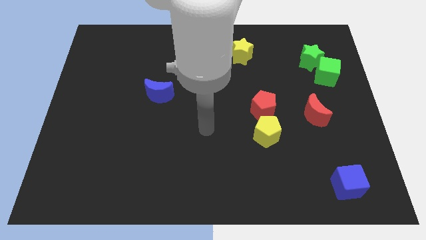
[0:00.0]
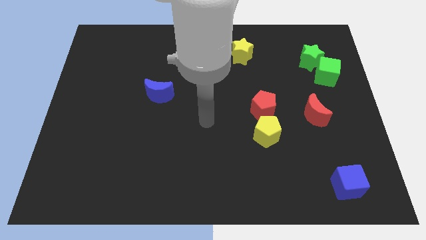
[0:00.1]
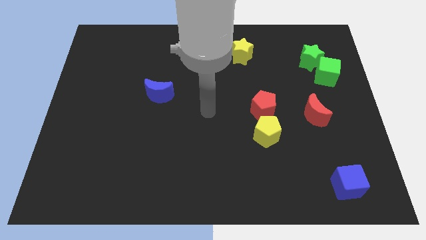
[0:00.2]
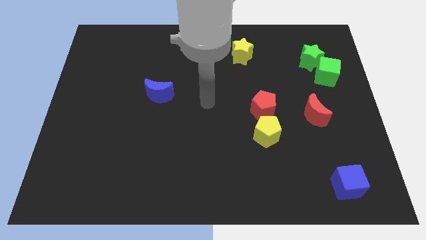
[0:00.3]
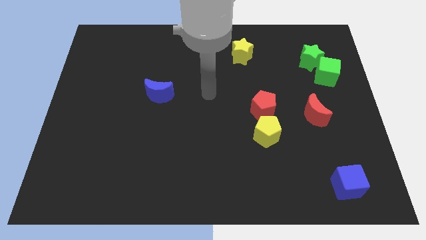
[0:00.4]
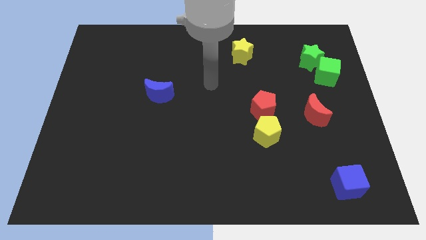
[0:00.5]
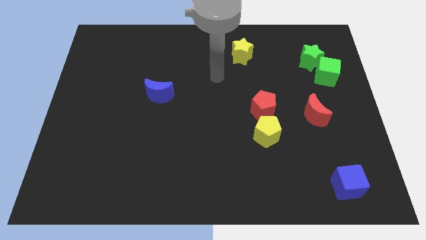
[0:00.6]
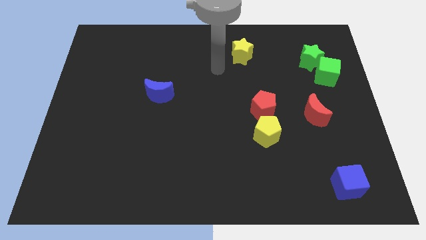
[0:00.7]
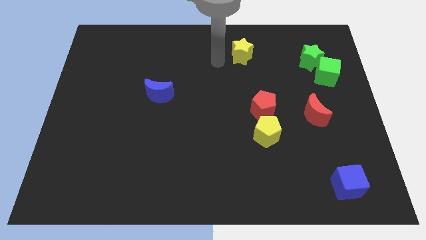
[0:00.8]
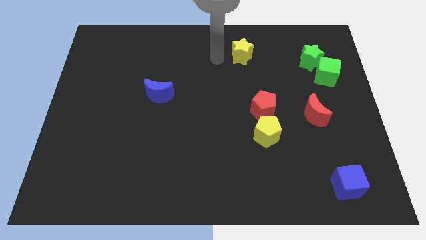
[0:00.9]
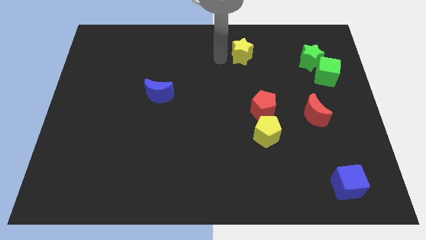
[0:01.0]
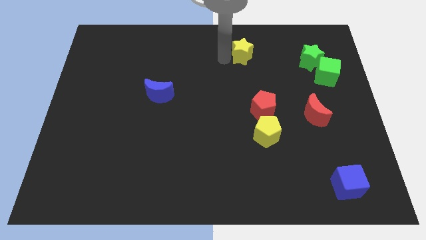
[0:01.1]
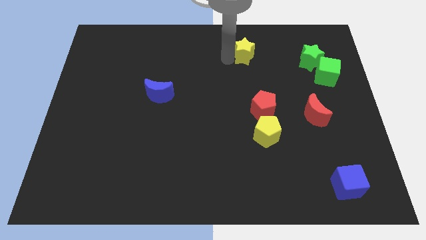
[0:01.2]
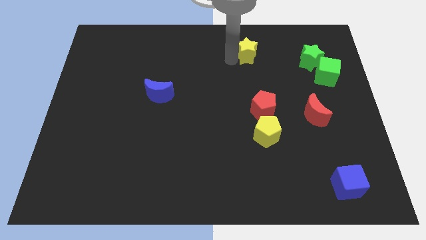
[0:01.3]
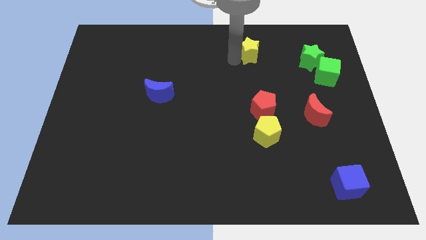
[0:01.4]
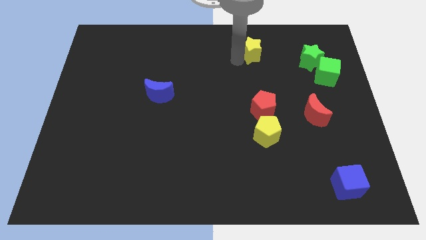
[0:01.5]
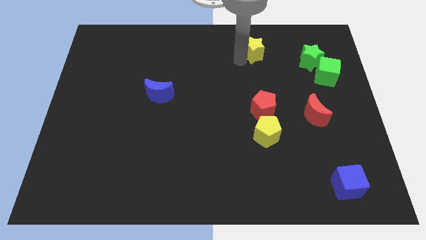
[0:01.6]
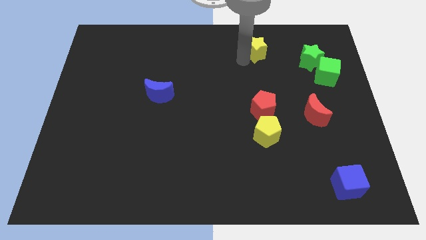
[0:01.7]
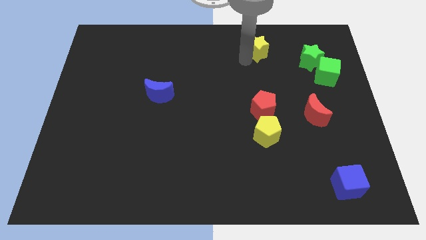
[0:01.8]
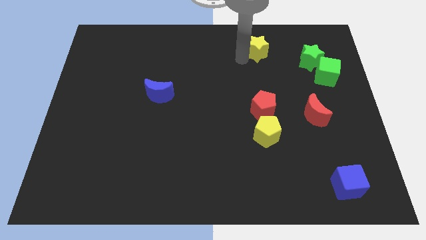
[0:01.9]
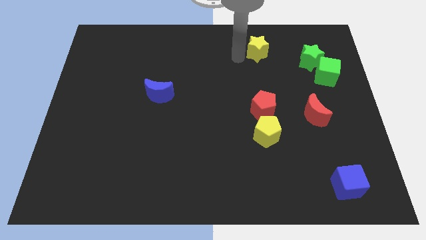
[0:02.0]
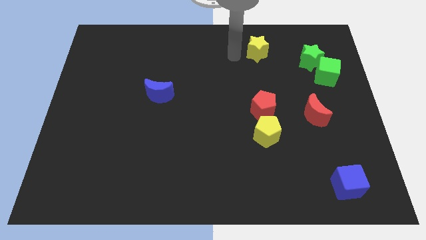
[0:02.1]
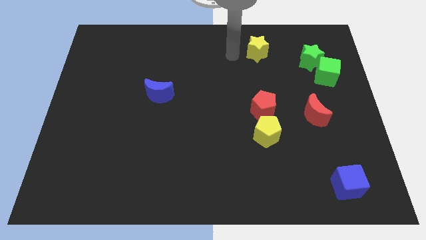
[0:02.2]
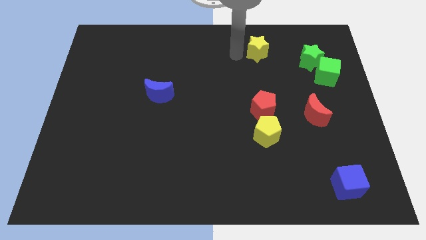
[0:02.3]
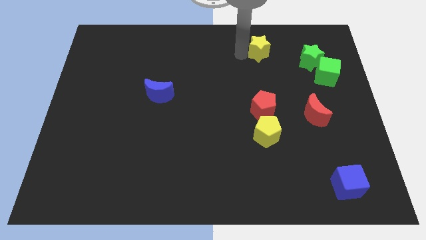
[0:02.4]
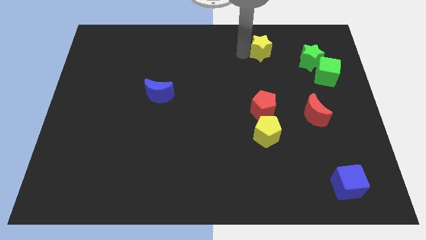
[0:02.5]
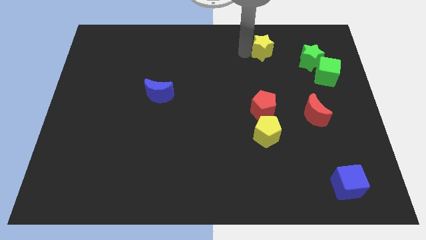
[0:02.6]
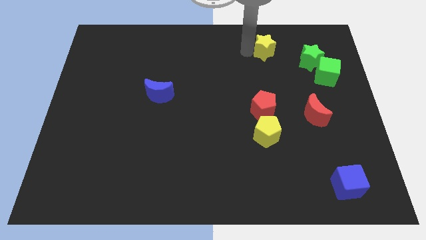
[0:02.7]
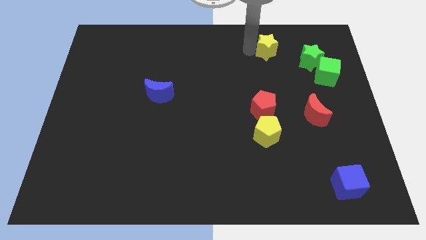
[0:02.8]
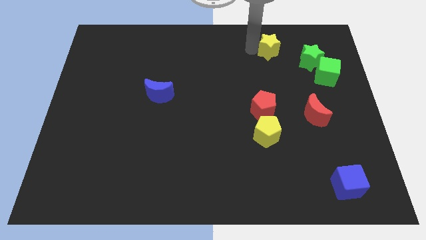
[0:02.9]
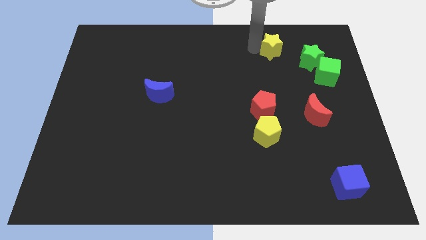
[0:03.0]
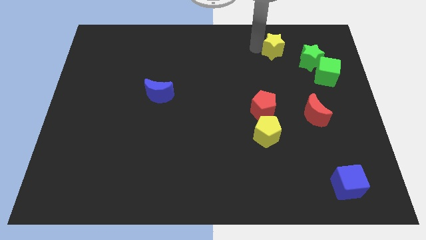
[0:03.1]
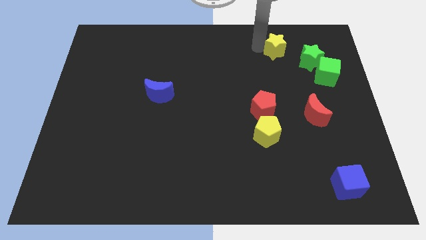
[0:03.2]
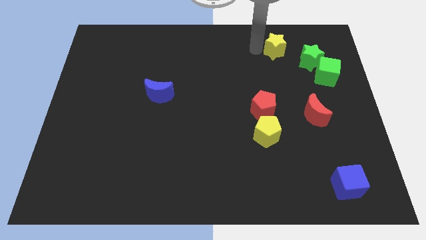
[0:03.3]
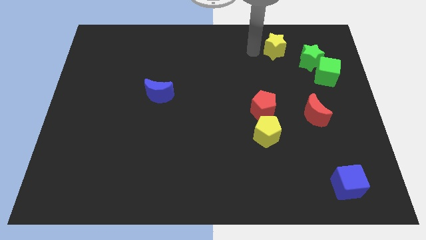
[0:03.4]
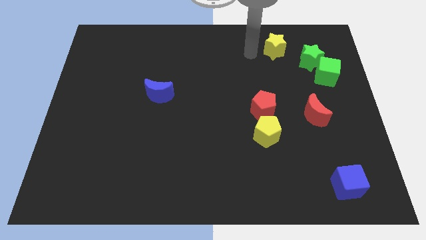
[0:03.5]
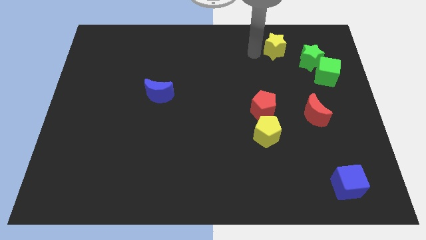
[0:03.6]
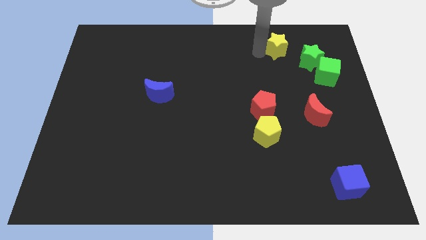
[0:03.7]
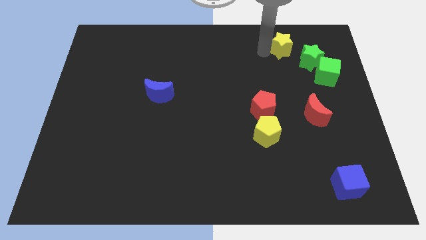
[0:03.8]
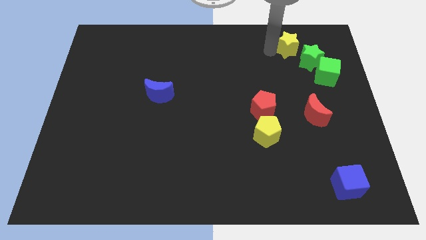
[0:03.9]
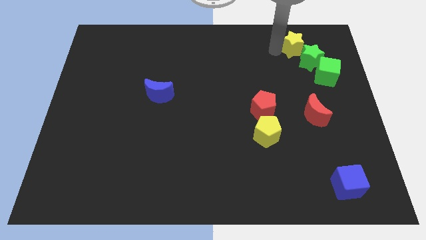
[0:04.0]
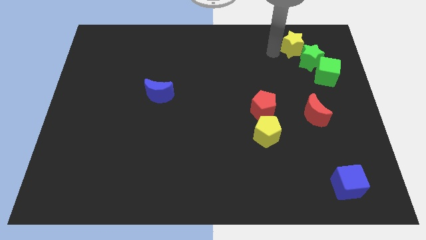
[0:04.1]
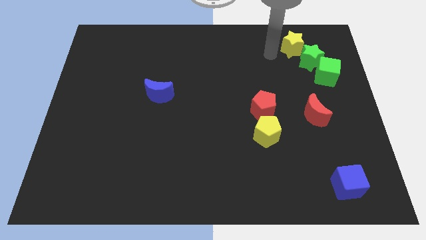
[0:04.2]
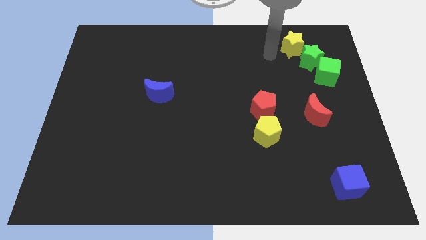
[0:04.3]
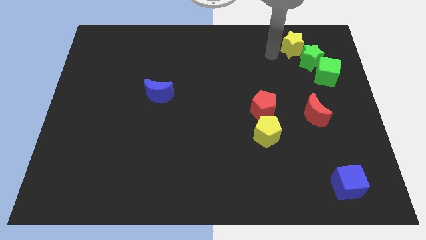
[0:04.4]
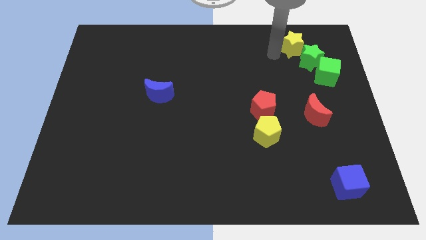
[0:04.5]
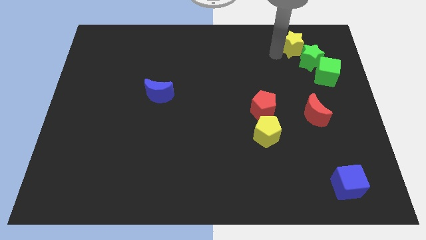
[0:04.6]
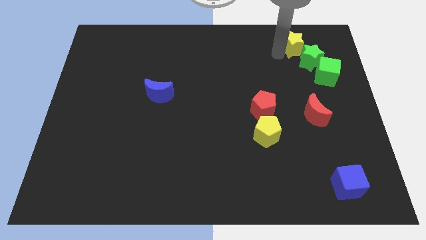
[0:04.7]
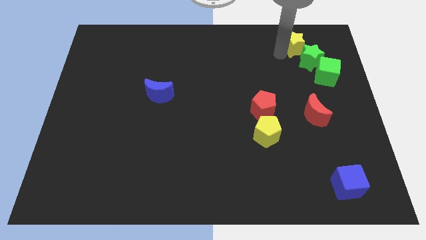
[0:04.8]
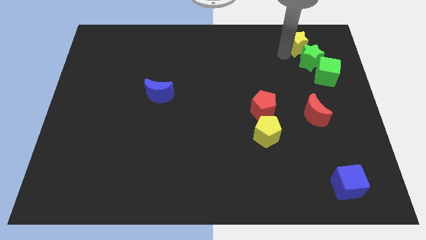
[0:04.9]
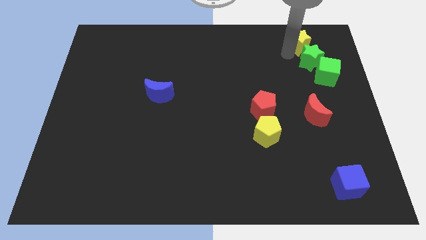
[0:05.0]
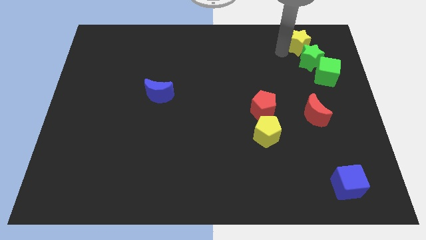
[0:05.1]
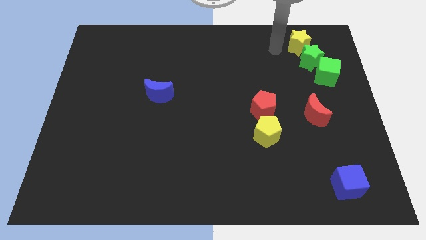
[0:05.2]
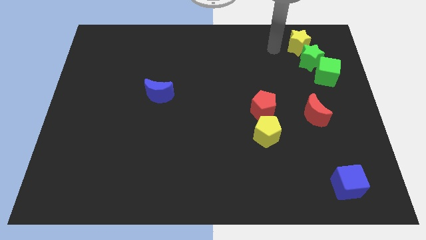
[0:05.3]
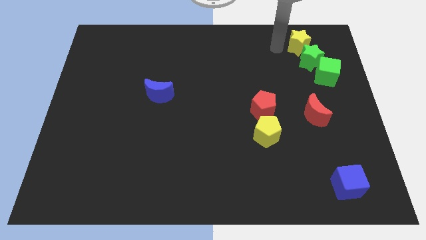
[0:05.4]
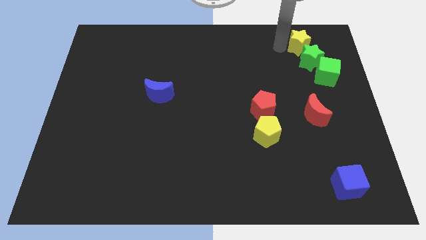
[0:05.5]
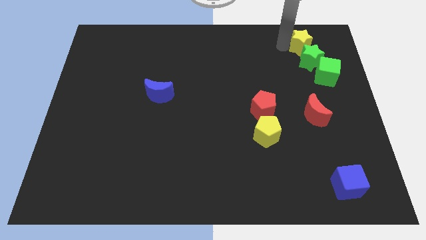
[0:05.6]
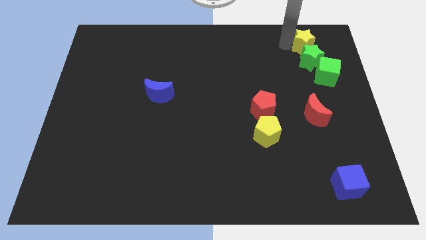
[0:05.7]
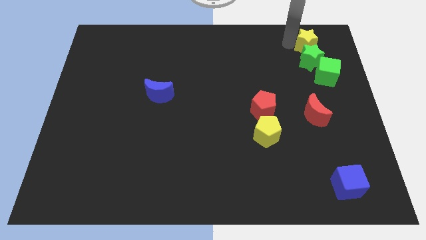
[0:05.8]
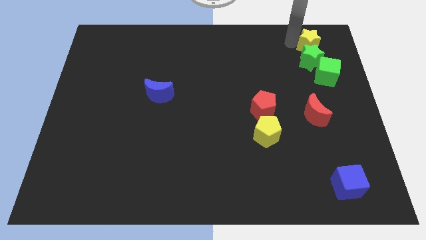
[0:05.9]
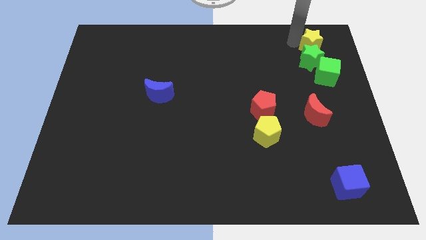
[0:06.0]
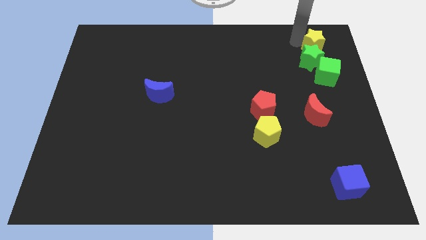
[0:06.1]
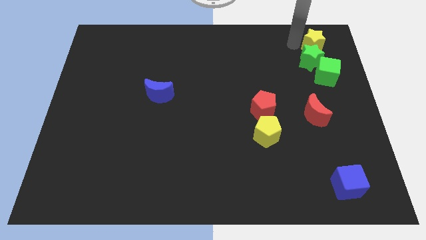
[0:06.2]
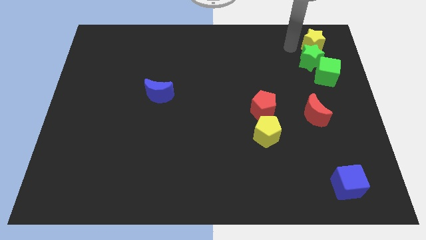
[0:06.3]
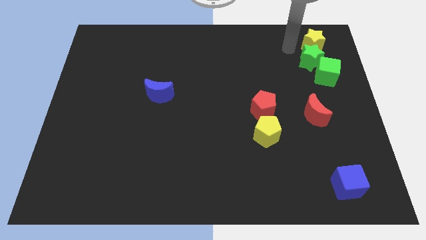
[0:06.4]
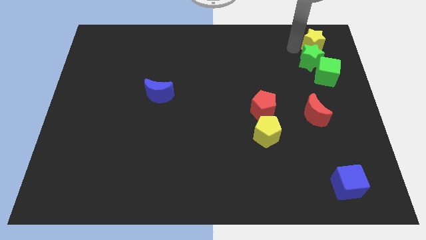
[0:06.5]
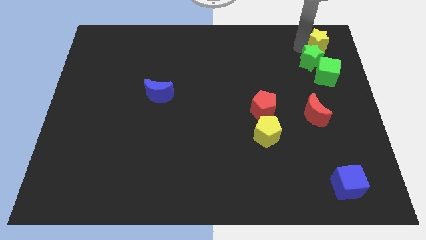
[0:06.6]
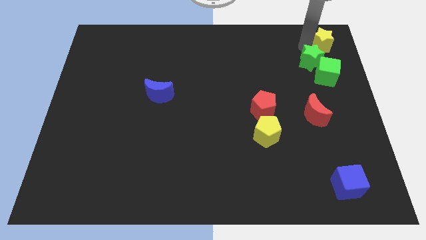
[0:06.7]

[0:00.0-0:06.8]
move the yellow star to the top right
